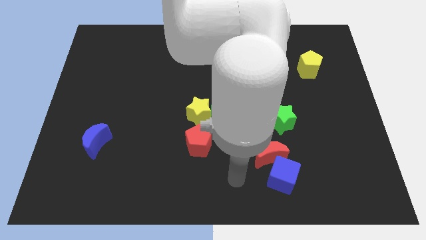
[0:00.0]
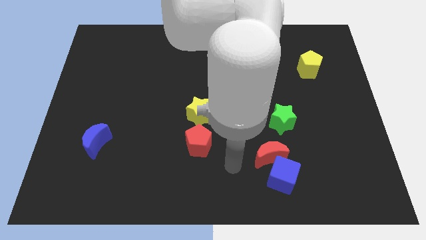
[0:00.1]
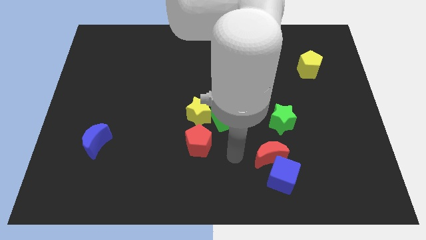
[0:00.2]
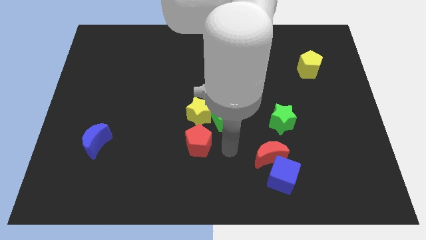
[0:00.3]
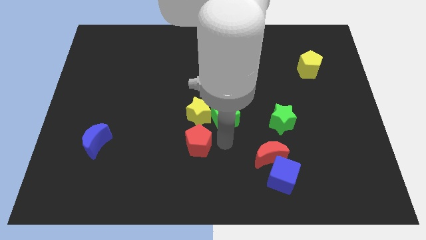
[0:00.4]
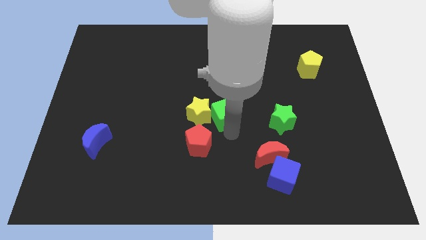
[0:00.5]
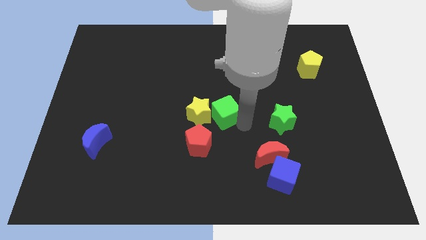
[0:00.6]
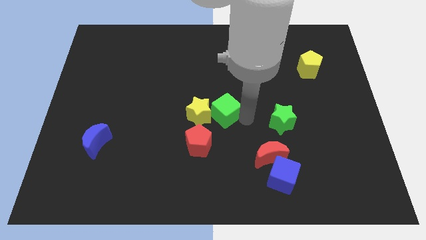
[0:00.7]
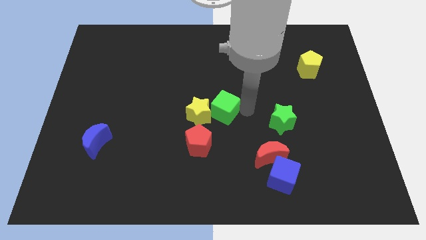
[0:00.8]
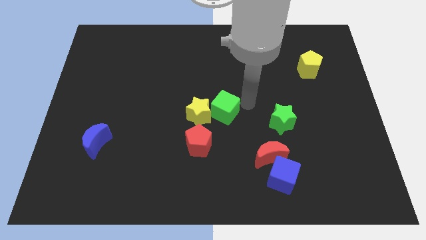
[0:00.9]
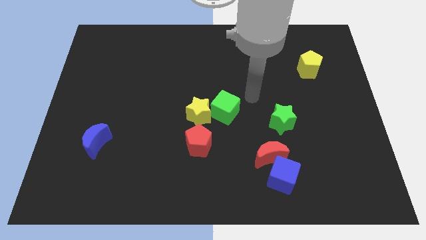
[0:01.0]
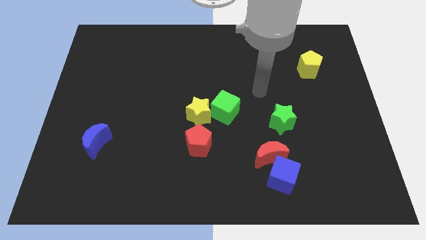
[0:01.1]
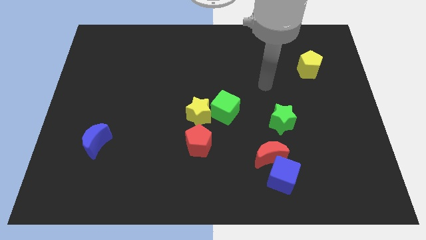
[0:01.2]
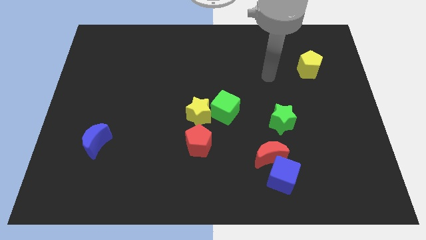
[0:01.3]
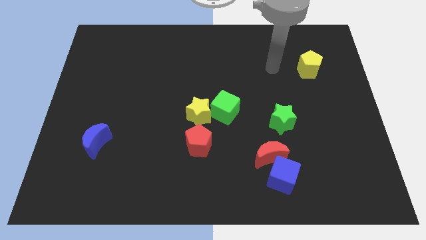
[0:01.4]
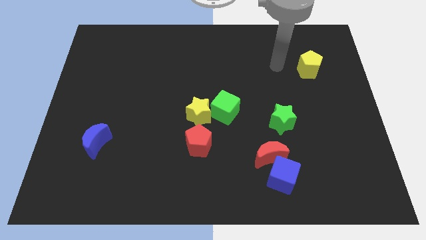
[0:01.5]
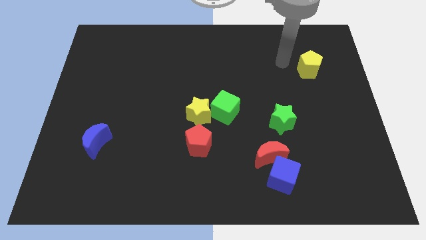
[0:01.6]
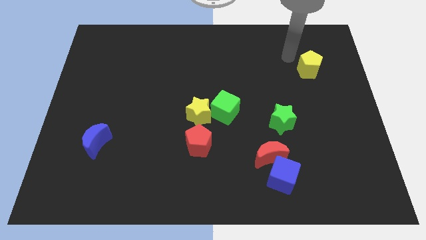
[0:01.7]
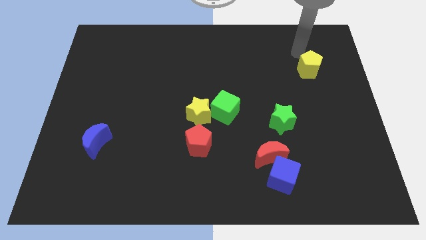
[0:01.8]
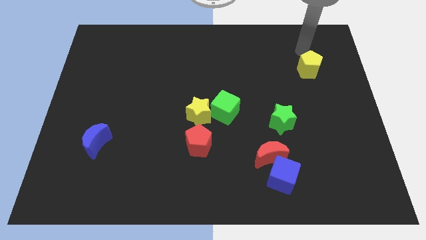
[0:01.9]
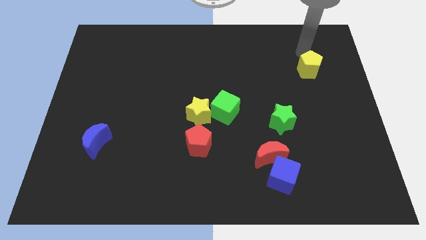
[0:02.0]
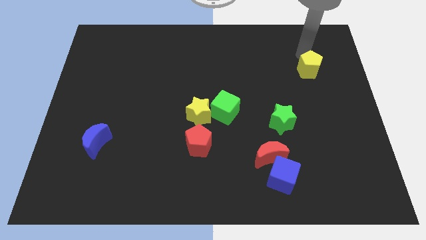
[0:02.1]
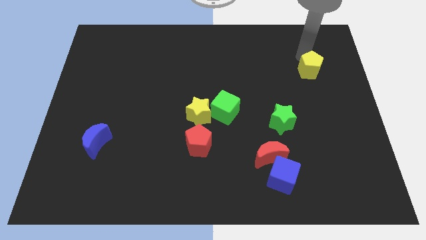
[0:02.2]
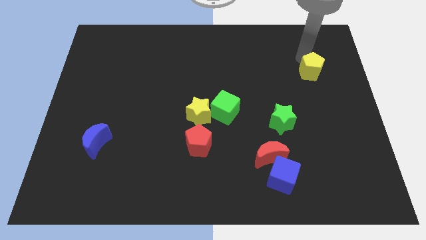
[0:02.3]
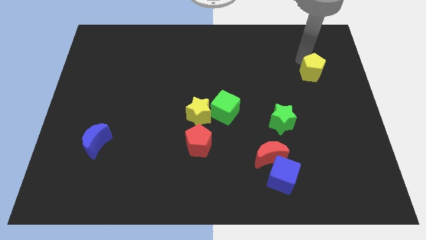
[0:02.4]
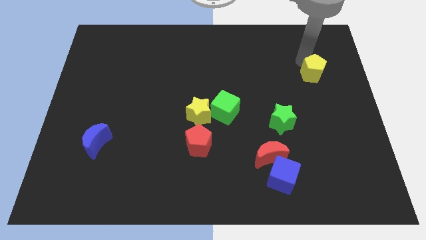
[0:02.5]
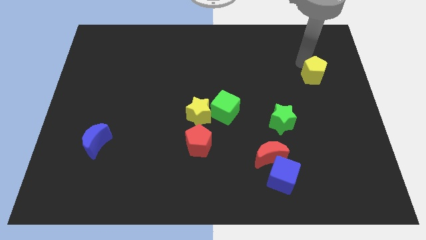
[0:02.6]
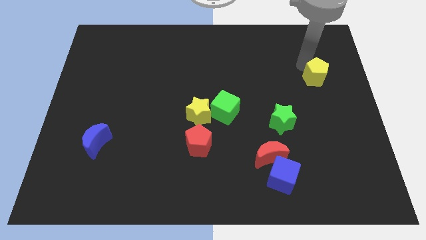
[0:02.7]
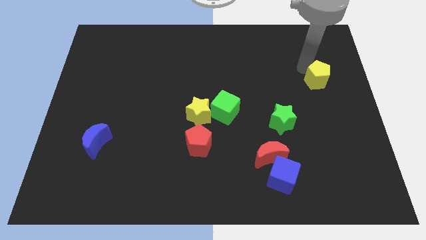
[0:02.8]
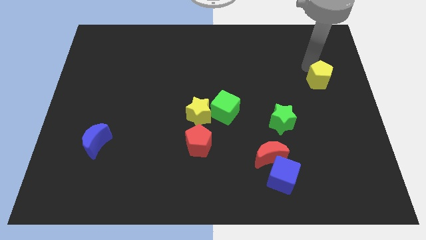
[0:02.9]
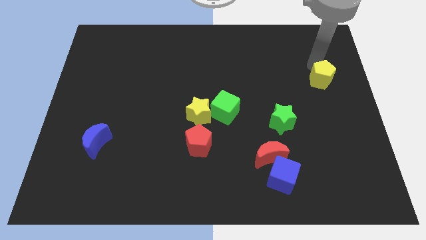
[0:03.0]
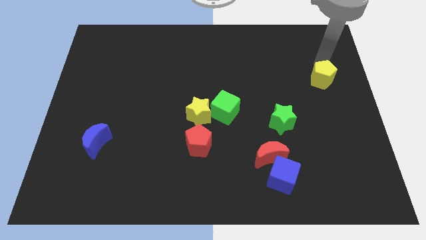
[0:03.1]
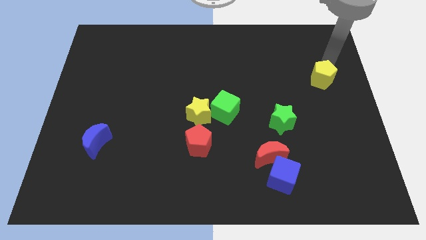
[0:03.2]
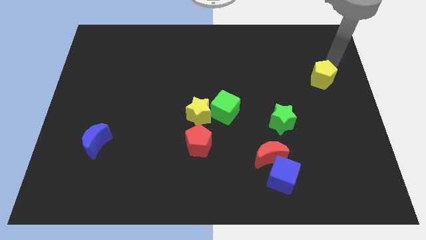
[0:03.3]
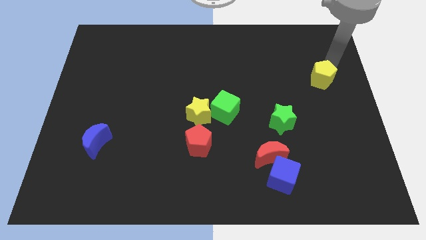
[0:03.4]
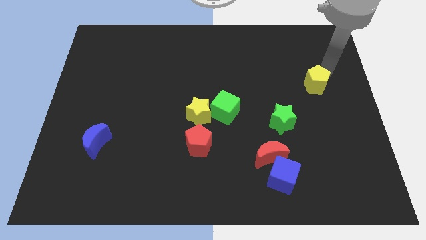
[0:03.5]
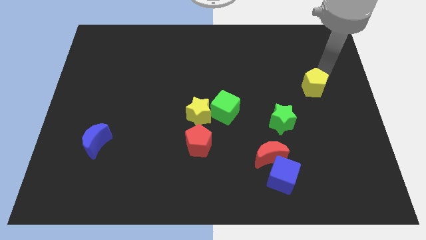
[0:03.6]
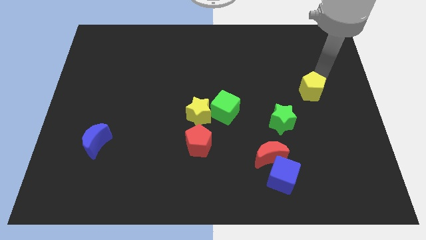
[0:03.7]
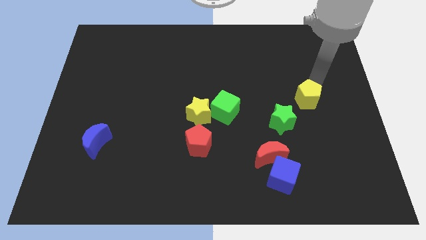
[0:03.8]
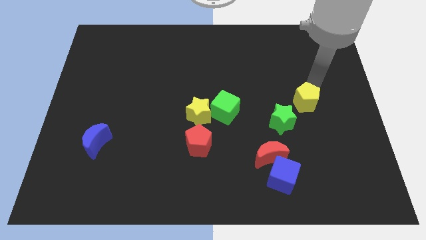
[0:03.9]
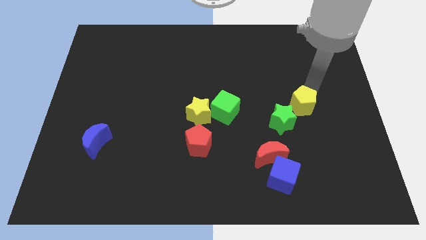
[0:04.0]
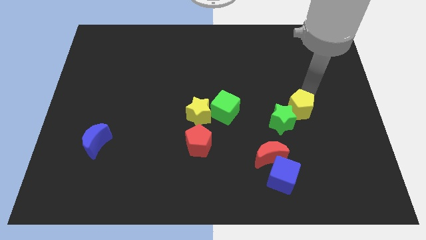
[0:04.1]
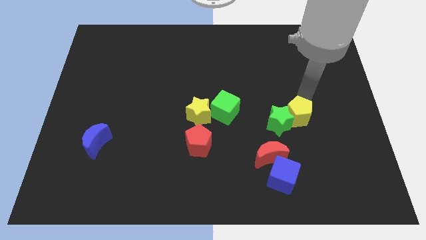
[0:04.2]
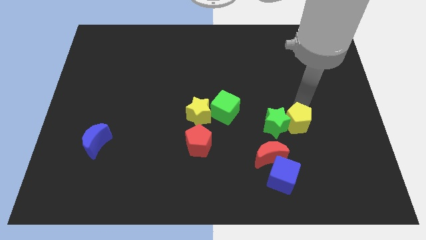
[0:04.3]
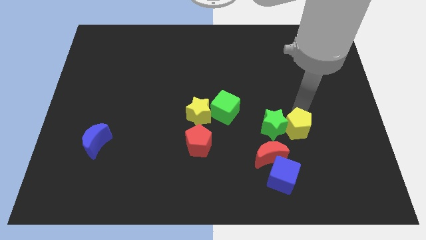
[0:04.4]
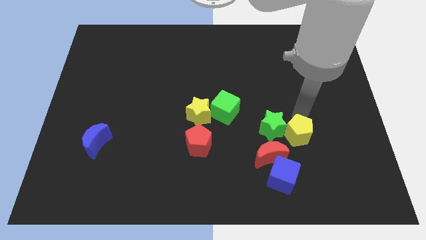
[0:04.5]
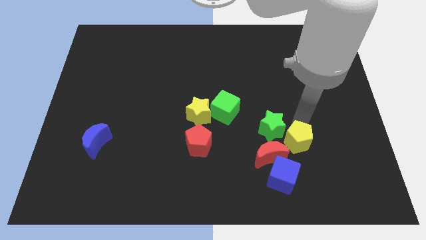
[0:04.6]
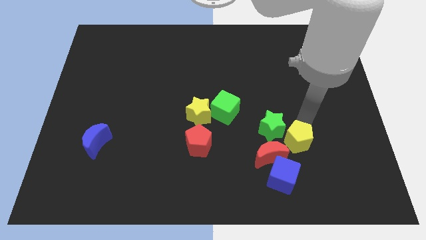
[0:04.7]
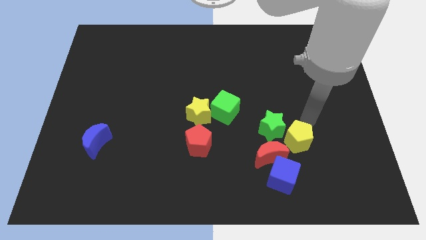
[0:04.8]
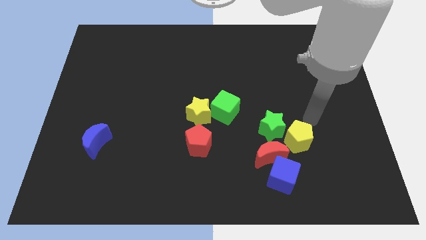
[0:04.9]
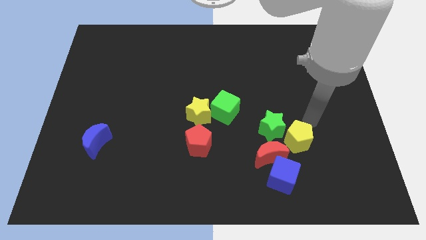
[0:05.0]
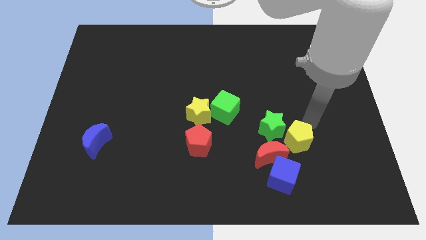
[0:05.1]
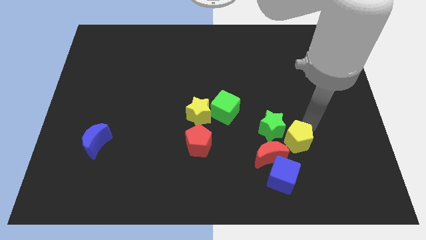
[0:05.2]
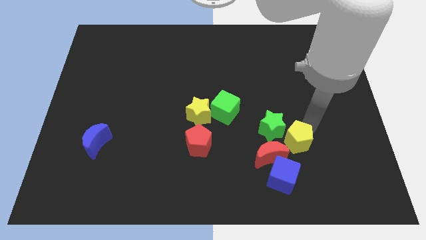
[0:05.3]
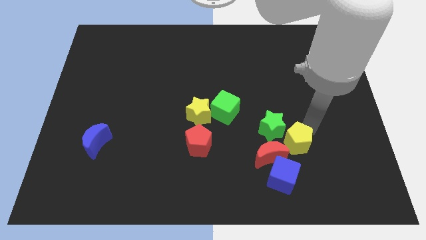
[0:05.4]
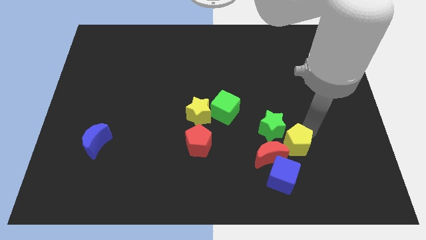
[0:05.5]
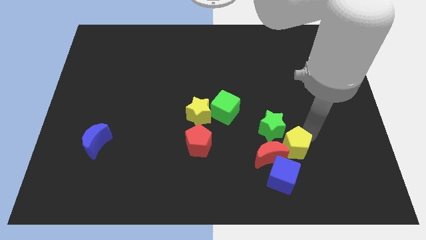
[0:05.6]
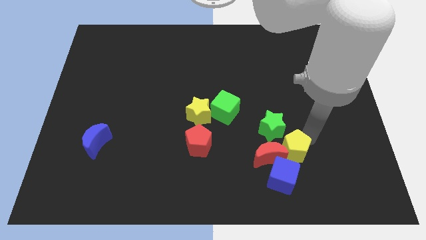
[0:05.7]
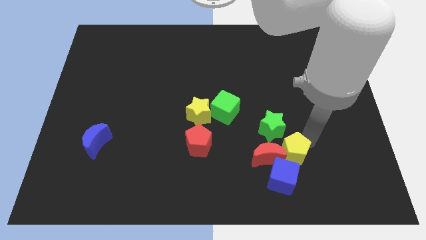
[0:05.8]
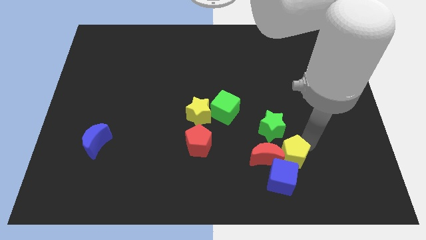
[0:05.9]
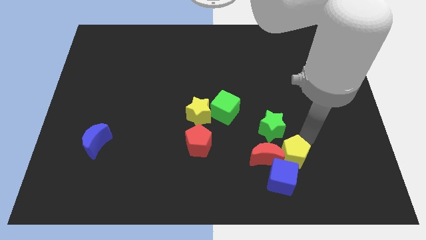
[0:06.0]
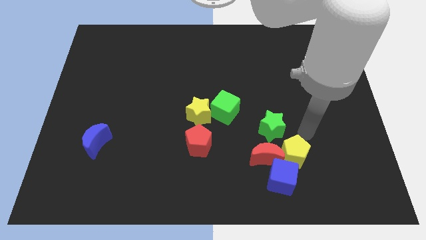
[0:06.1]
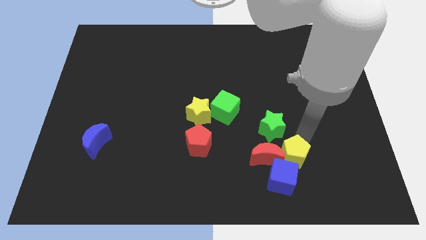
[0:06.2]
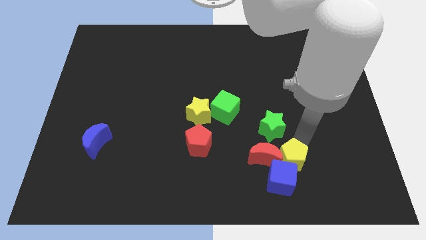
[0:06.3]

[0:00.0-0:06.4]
slide the yellow pentagon next to the blue cube

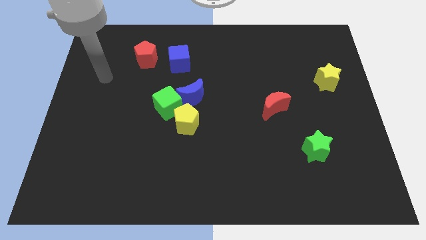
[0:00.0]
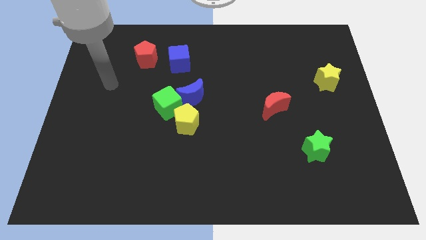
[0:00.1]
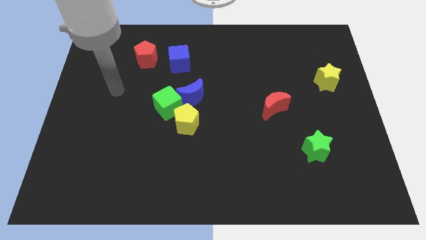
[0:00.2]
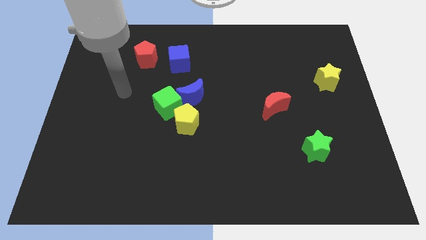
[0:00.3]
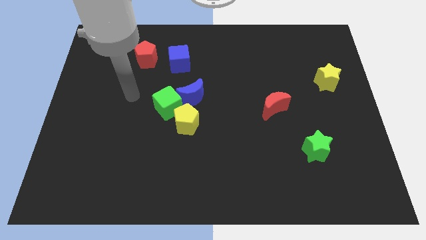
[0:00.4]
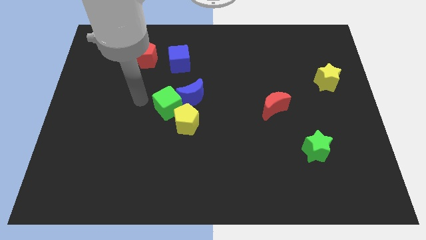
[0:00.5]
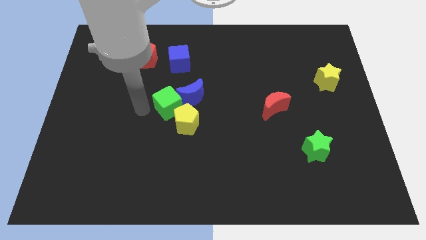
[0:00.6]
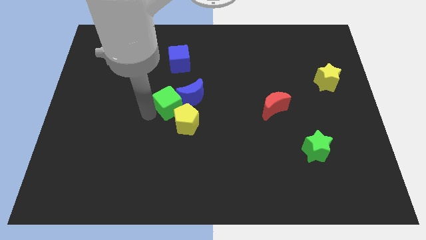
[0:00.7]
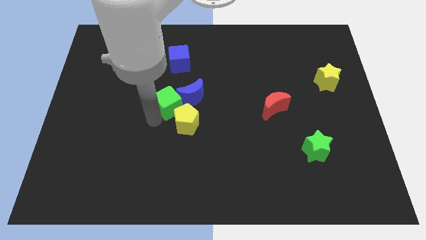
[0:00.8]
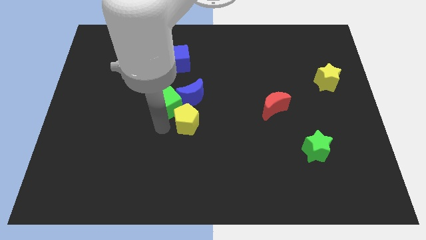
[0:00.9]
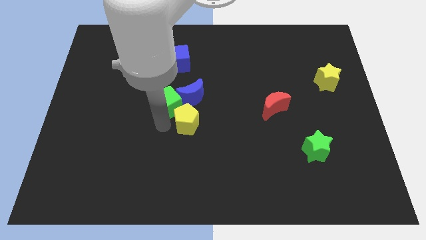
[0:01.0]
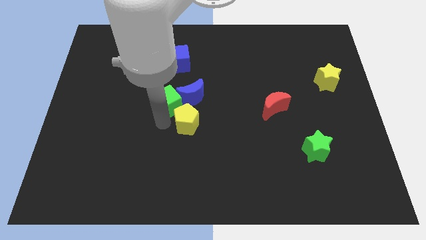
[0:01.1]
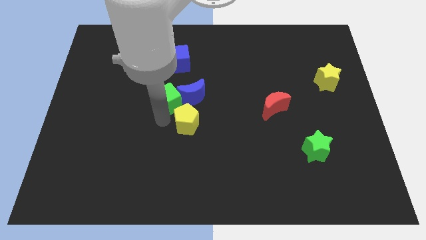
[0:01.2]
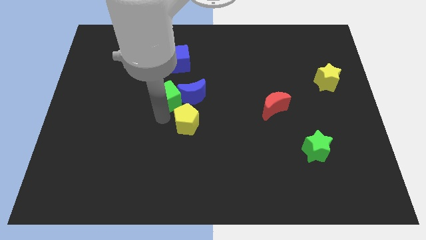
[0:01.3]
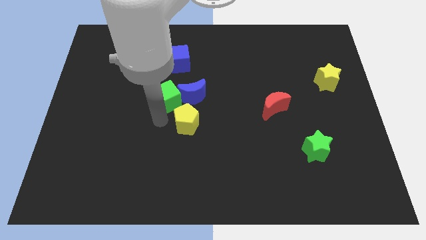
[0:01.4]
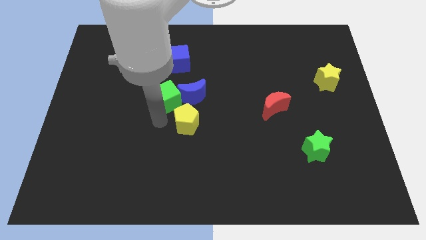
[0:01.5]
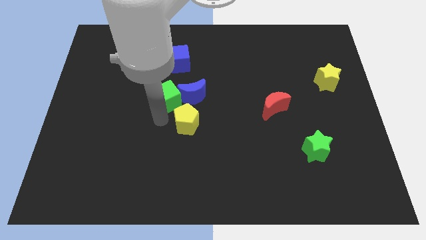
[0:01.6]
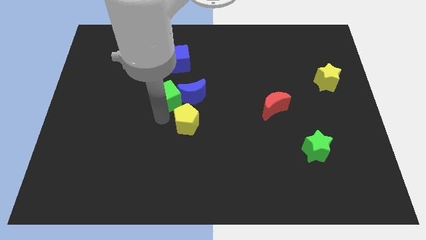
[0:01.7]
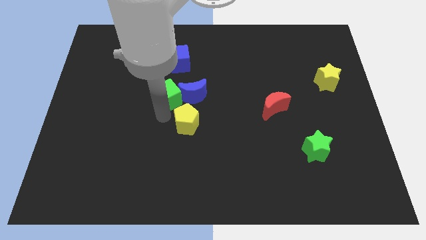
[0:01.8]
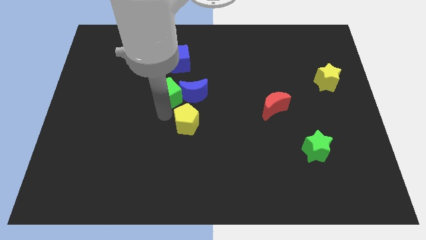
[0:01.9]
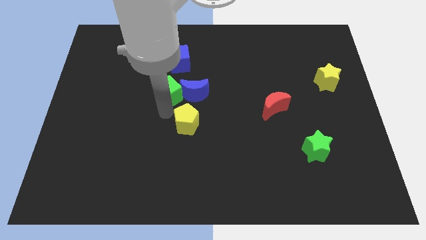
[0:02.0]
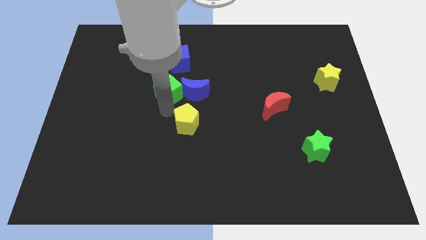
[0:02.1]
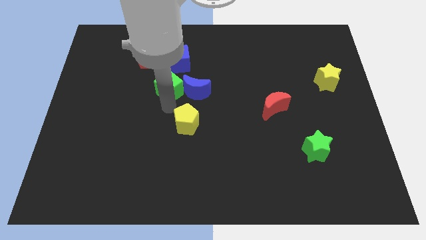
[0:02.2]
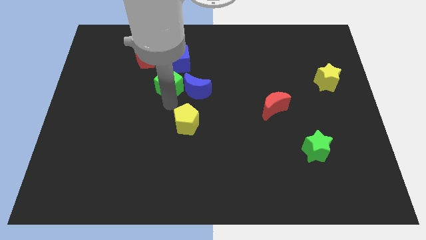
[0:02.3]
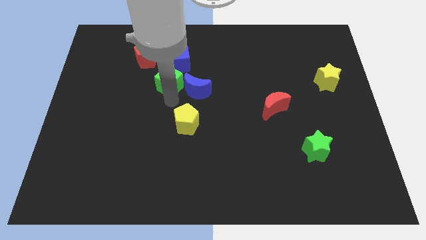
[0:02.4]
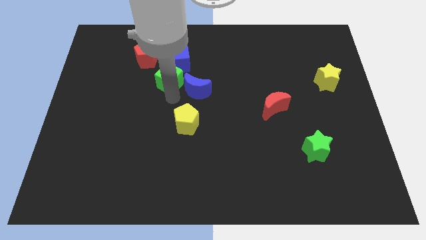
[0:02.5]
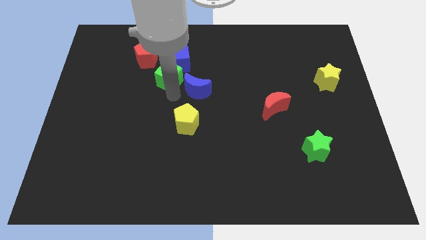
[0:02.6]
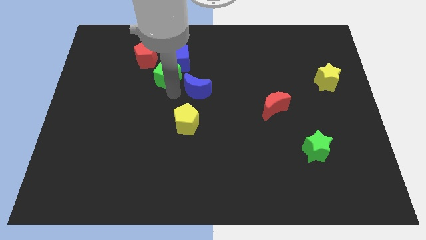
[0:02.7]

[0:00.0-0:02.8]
move the green cube to the blue cube
